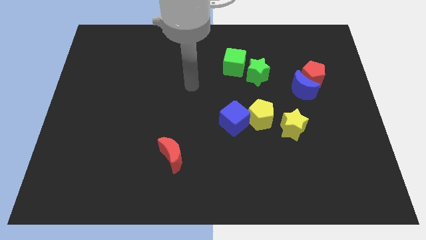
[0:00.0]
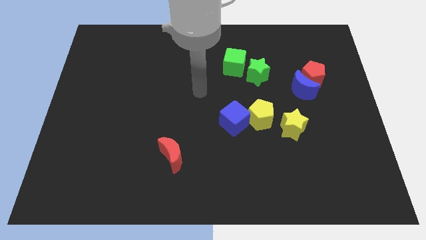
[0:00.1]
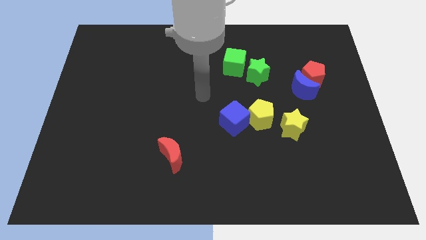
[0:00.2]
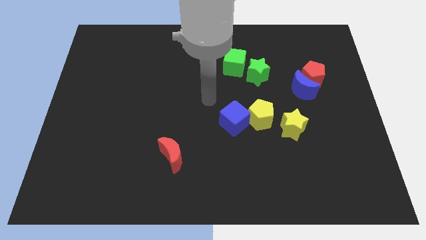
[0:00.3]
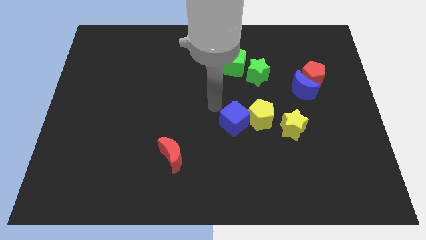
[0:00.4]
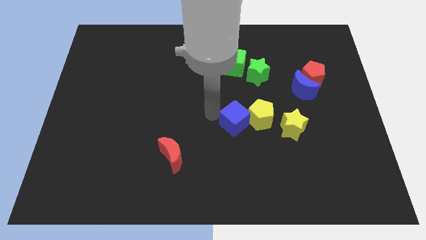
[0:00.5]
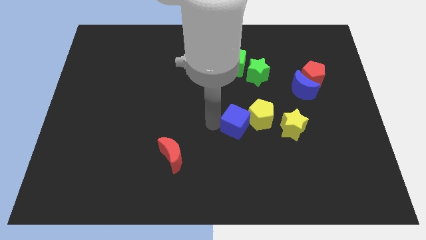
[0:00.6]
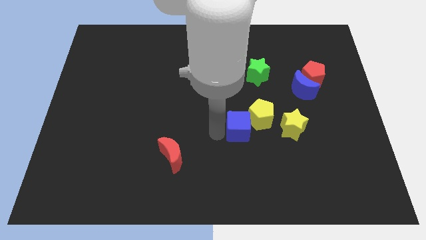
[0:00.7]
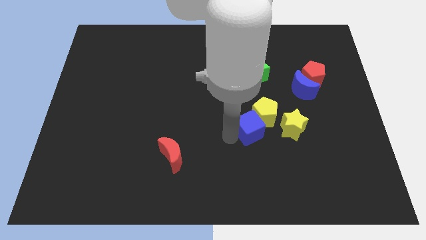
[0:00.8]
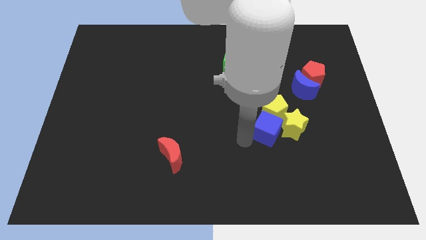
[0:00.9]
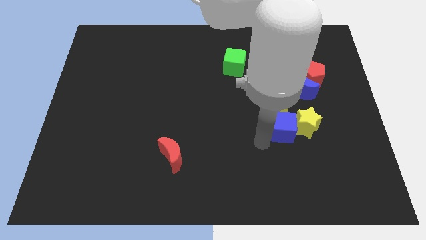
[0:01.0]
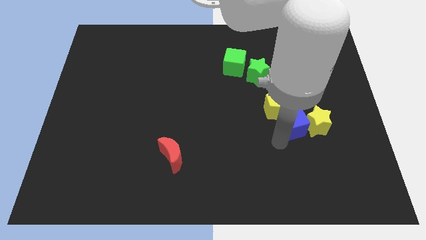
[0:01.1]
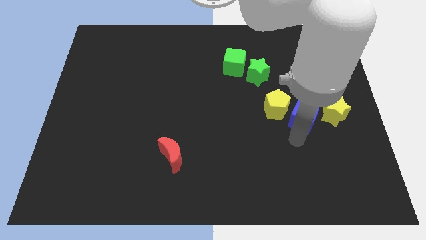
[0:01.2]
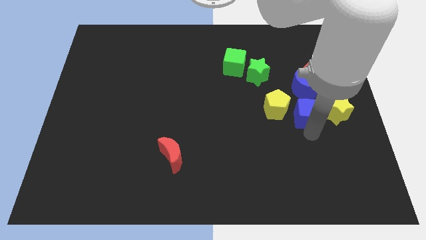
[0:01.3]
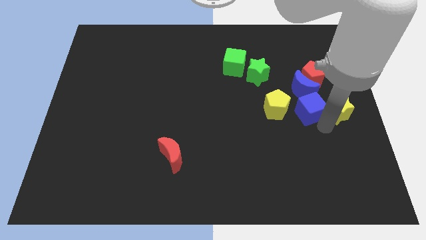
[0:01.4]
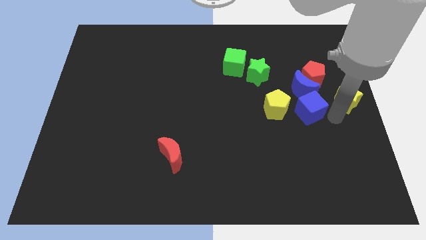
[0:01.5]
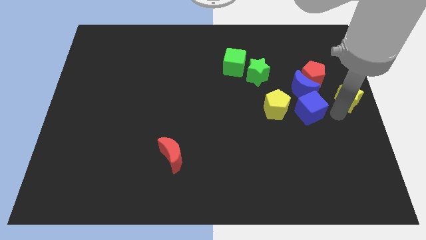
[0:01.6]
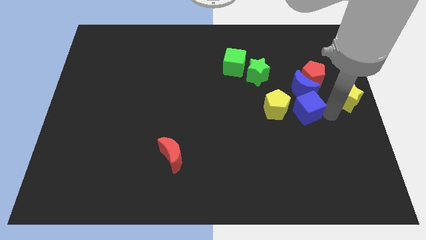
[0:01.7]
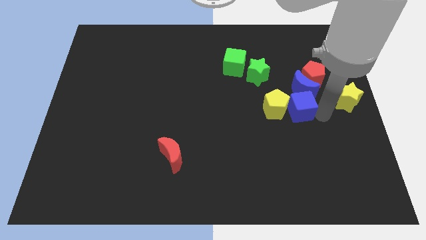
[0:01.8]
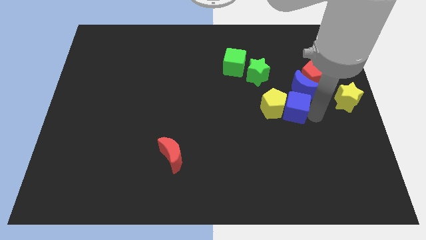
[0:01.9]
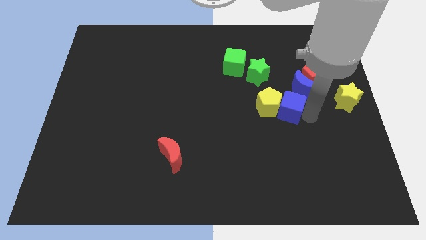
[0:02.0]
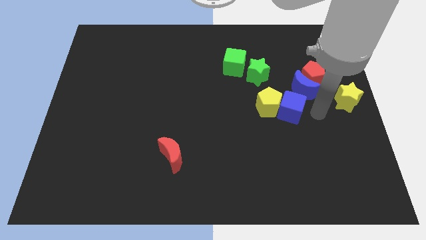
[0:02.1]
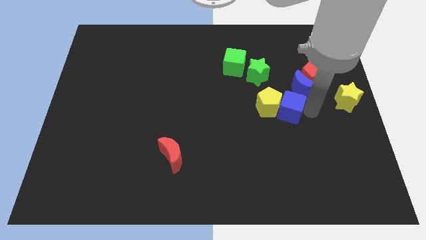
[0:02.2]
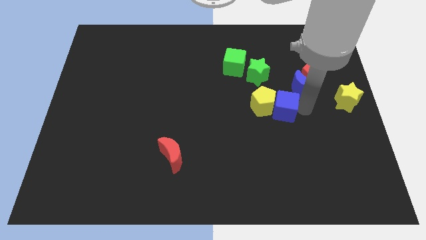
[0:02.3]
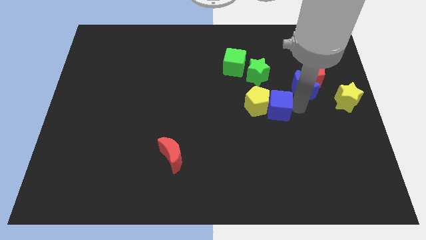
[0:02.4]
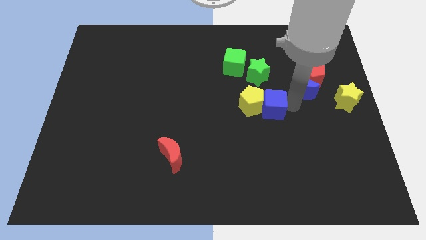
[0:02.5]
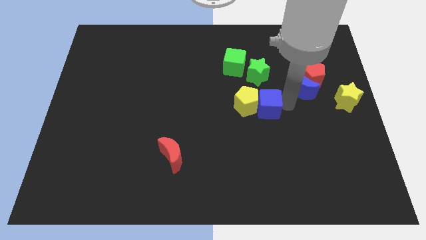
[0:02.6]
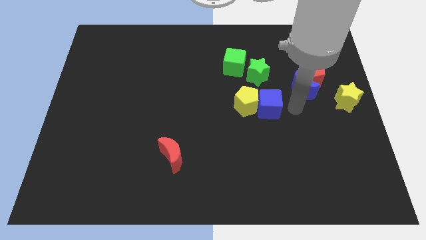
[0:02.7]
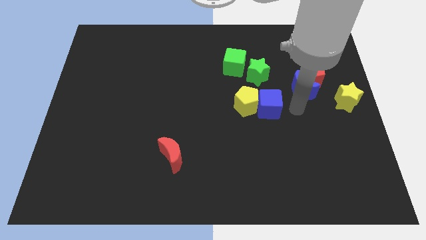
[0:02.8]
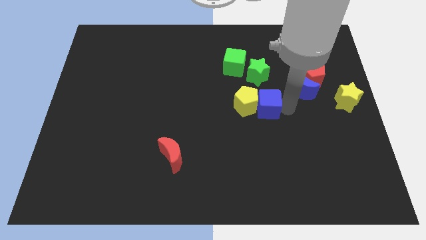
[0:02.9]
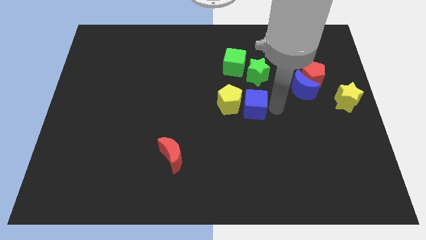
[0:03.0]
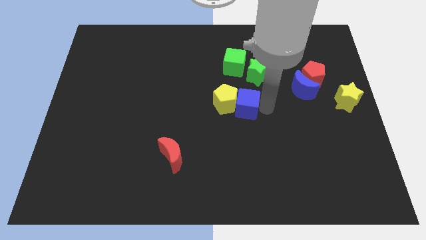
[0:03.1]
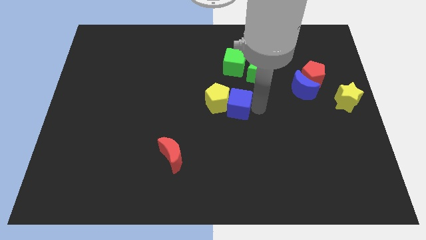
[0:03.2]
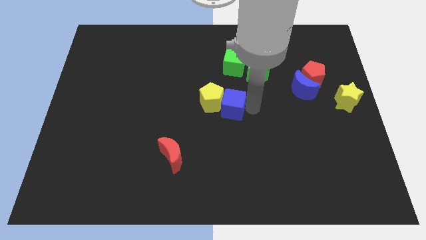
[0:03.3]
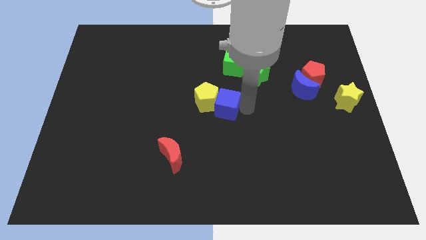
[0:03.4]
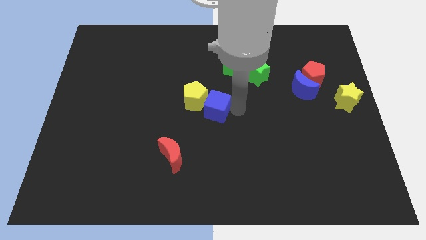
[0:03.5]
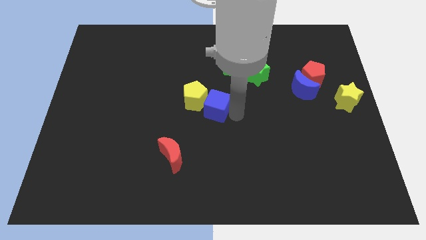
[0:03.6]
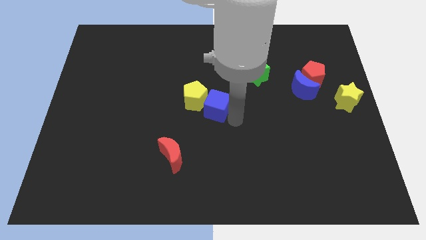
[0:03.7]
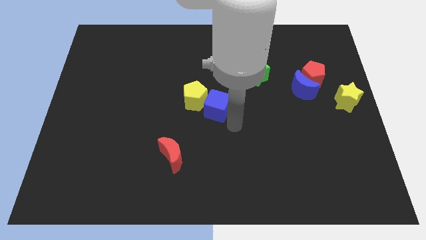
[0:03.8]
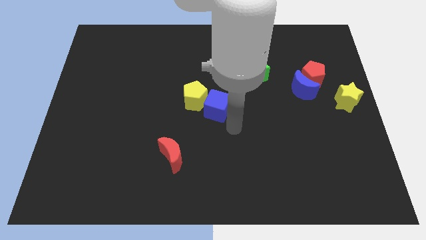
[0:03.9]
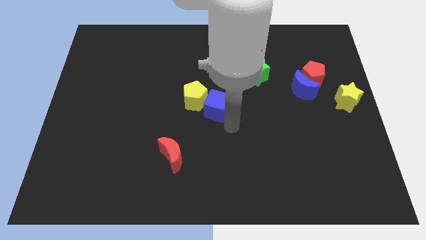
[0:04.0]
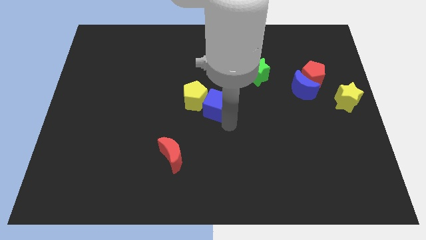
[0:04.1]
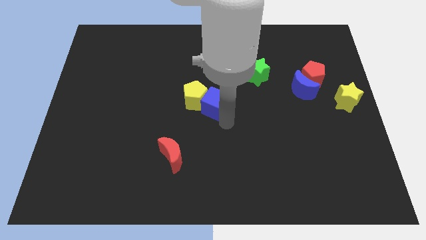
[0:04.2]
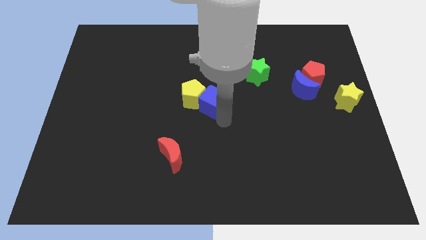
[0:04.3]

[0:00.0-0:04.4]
slide the blue cube a little bit diagonally upwards and to the left

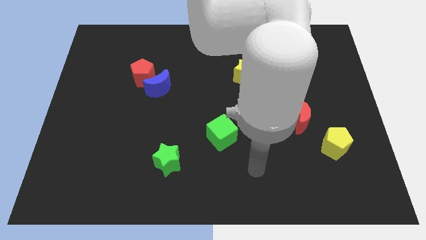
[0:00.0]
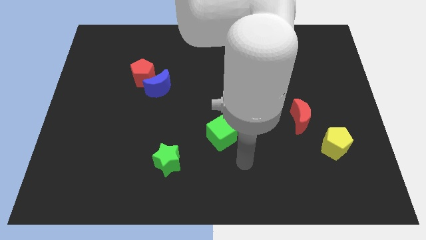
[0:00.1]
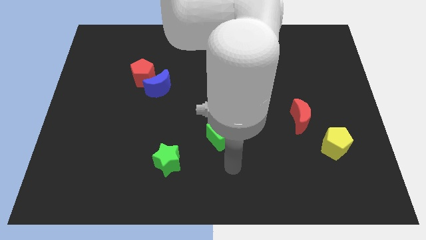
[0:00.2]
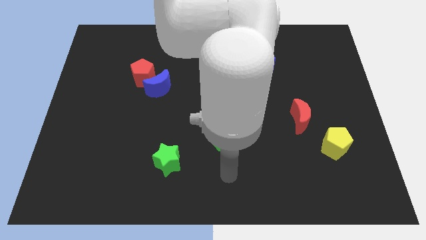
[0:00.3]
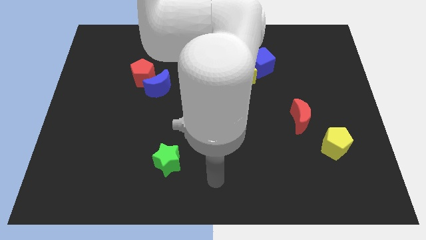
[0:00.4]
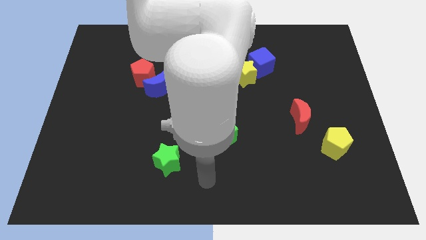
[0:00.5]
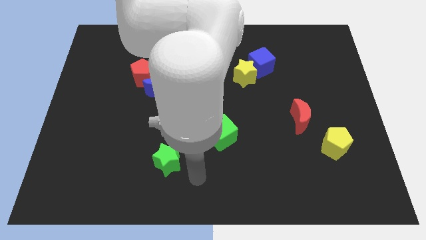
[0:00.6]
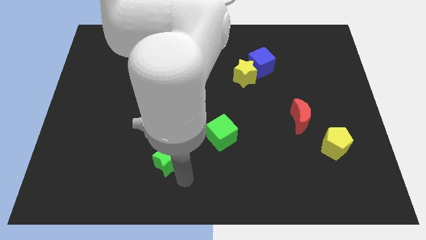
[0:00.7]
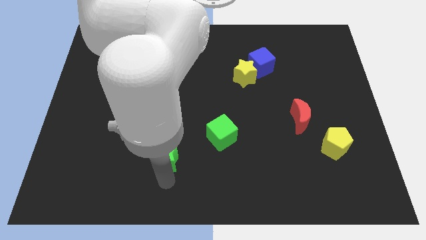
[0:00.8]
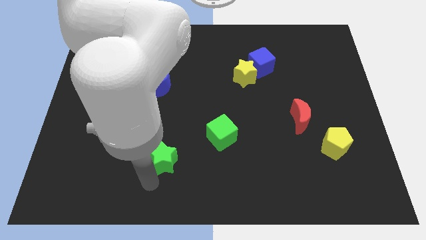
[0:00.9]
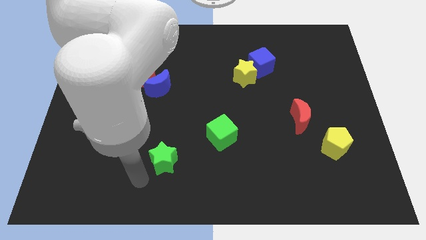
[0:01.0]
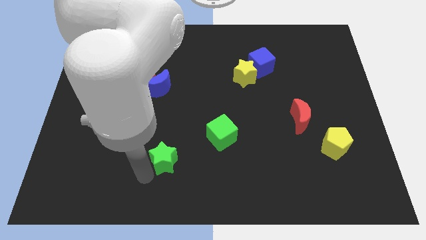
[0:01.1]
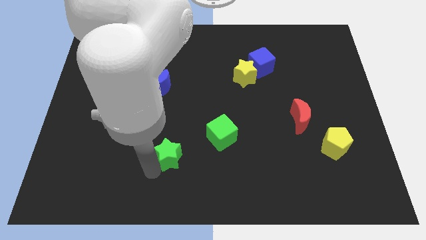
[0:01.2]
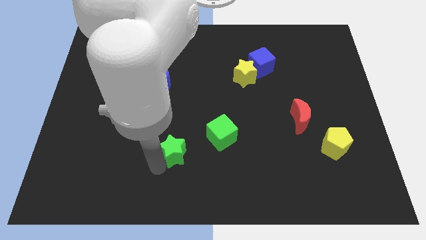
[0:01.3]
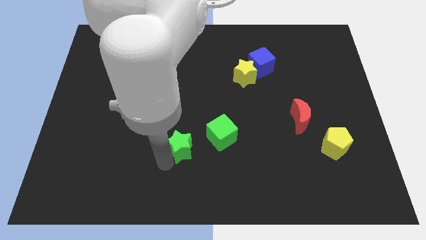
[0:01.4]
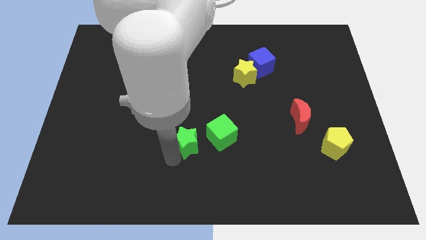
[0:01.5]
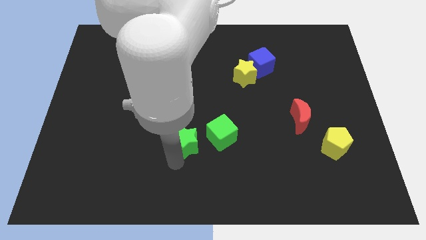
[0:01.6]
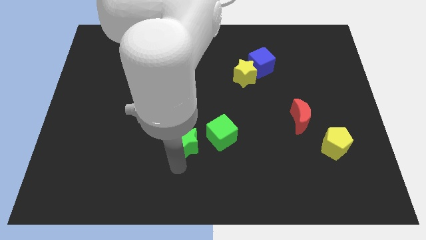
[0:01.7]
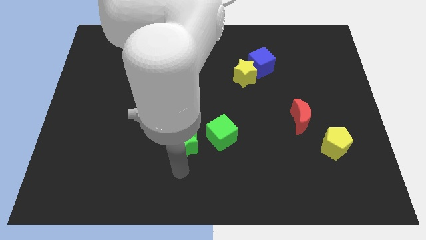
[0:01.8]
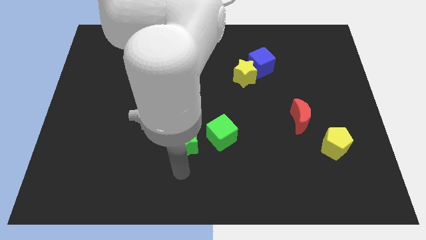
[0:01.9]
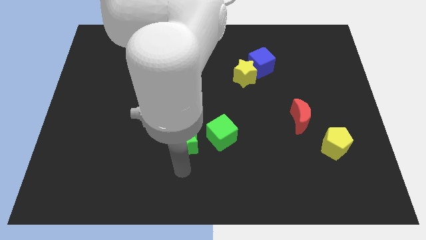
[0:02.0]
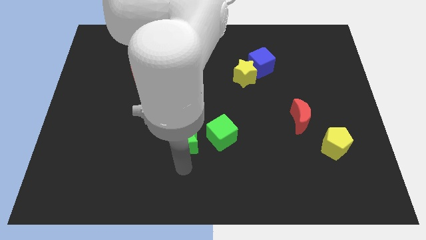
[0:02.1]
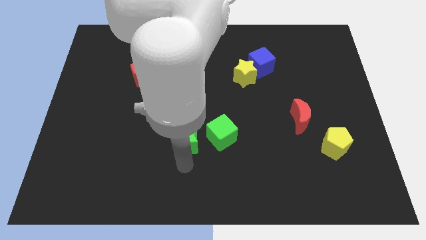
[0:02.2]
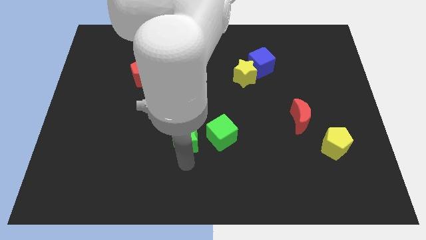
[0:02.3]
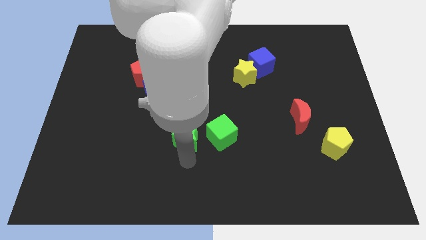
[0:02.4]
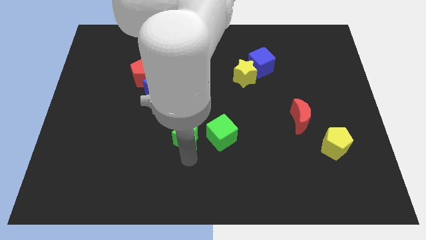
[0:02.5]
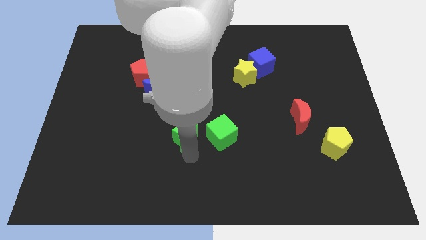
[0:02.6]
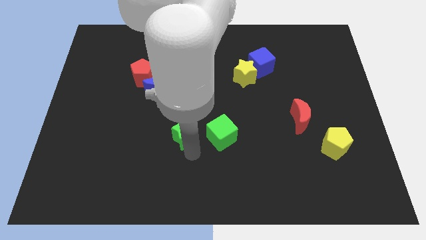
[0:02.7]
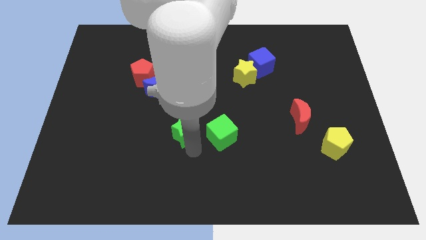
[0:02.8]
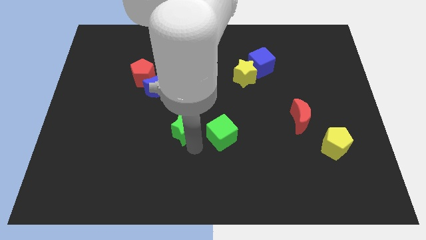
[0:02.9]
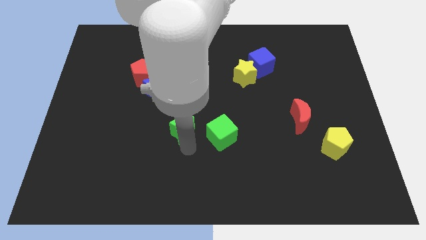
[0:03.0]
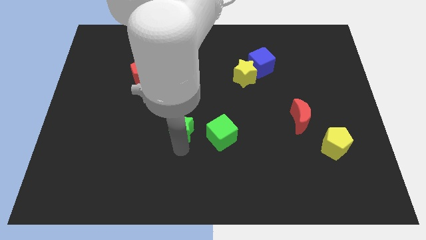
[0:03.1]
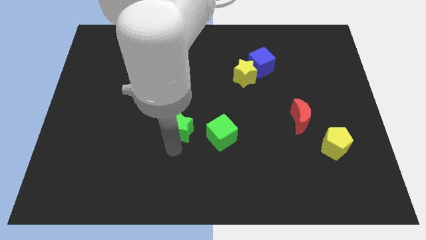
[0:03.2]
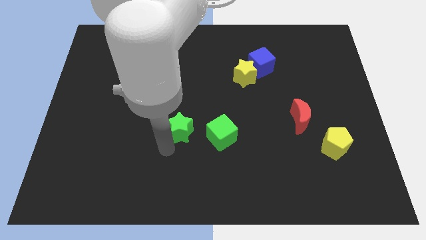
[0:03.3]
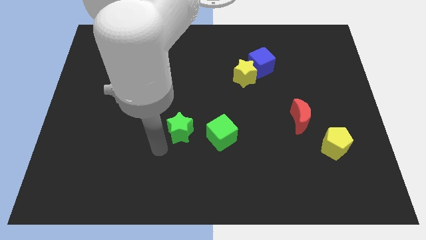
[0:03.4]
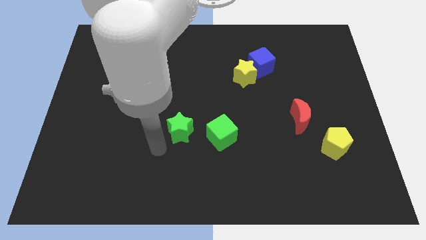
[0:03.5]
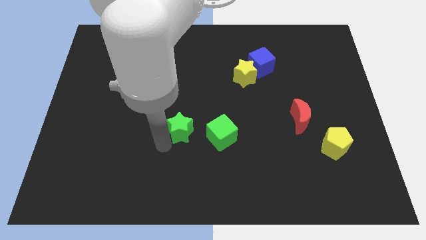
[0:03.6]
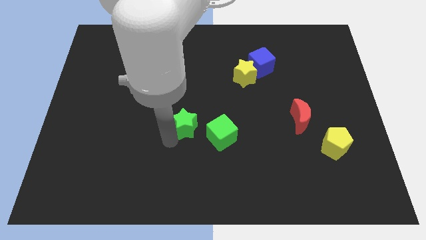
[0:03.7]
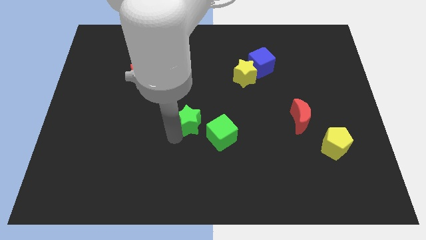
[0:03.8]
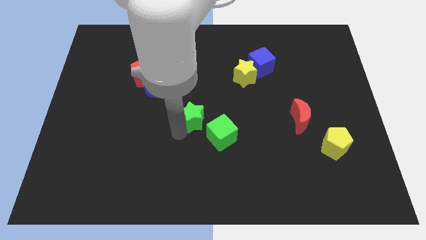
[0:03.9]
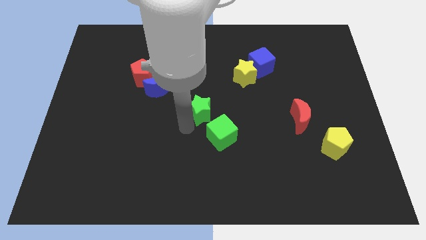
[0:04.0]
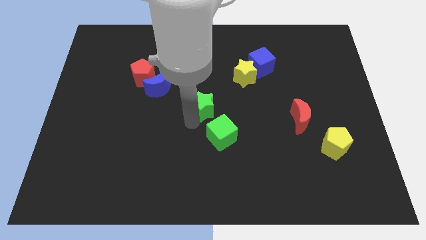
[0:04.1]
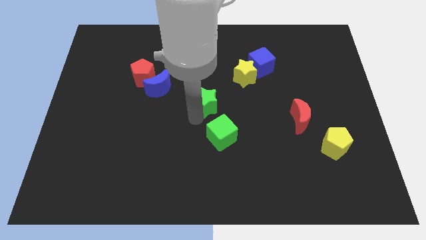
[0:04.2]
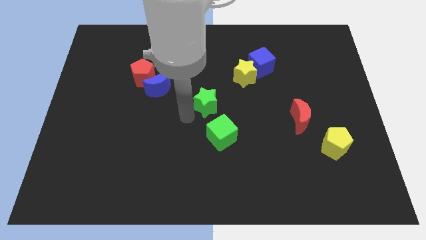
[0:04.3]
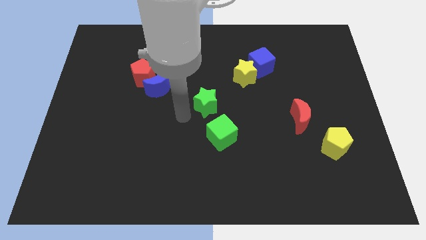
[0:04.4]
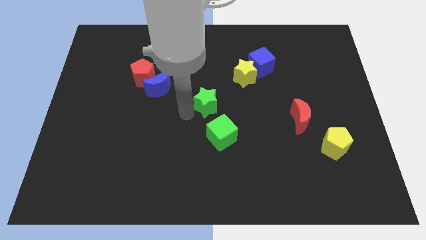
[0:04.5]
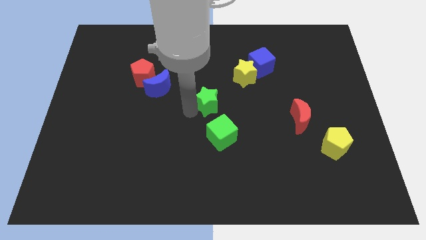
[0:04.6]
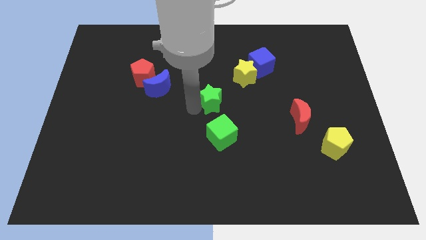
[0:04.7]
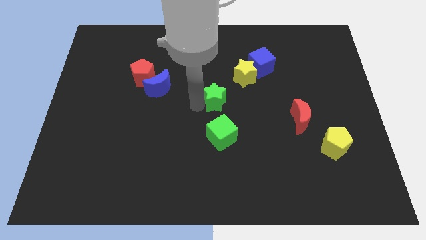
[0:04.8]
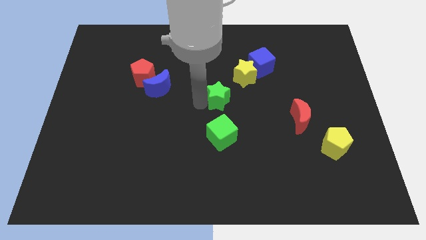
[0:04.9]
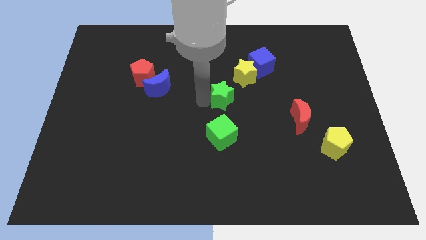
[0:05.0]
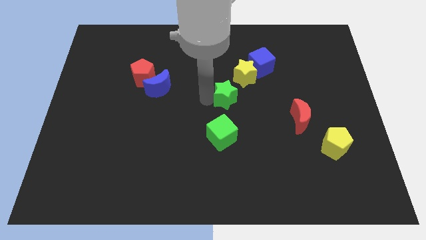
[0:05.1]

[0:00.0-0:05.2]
slide the green star diagonally upwards and right
